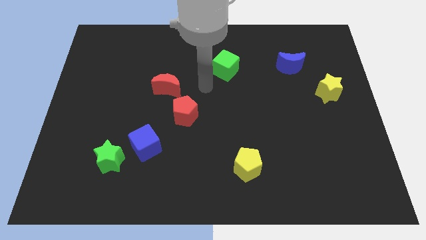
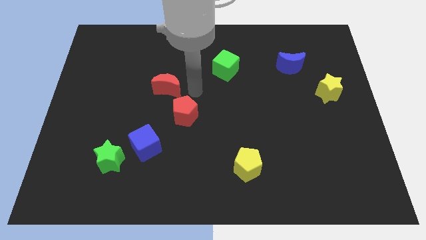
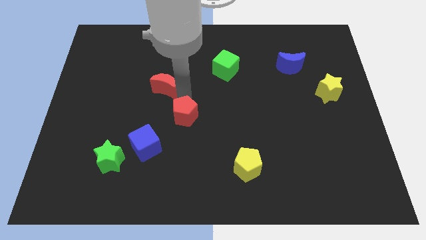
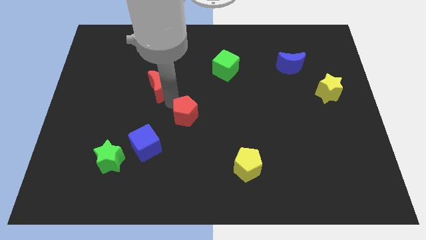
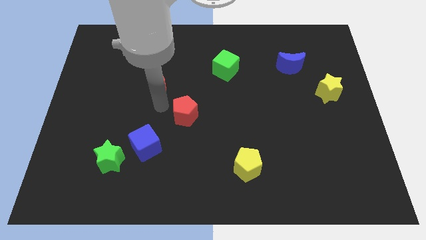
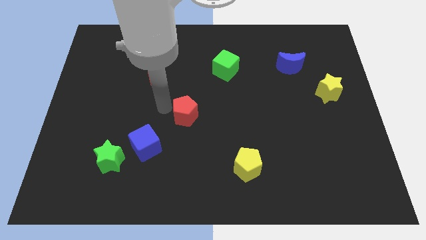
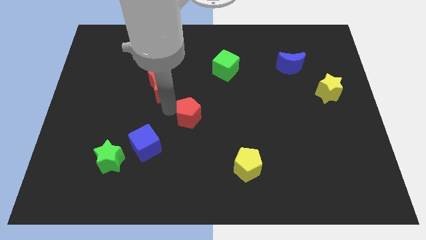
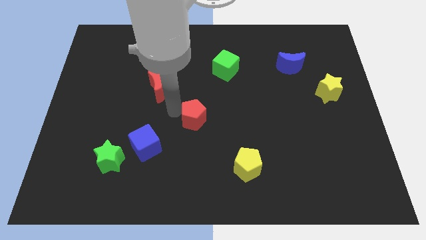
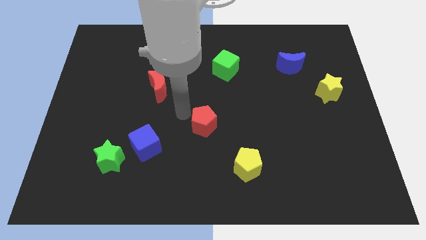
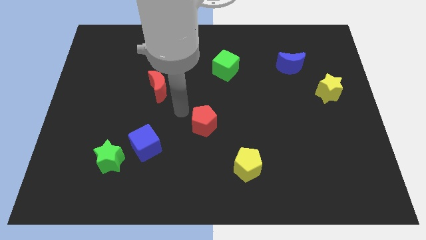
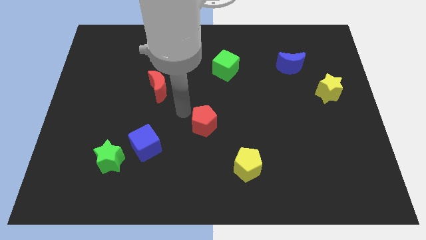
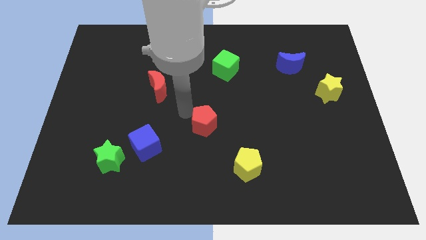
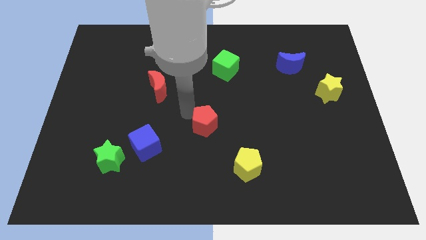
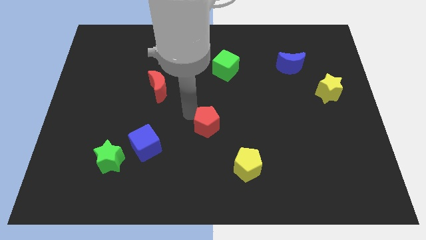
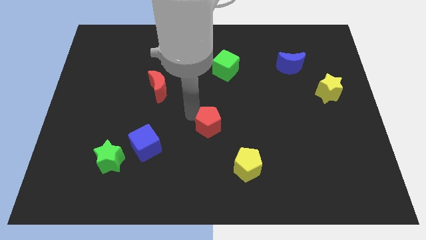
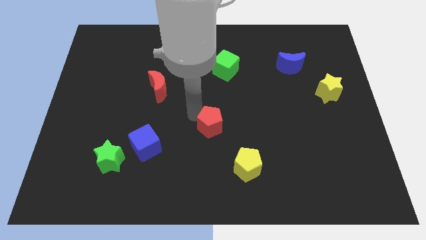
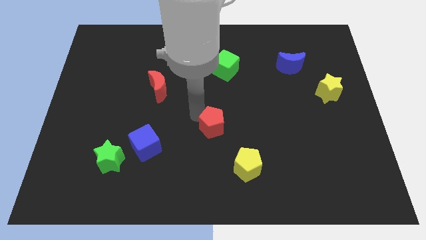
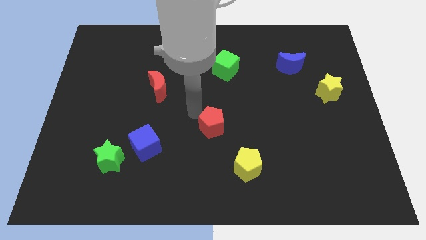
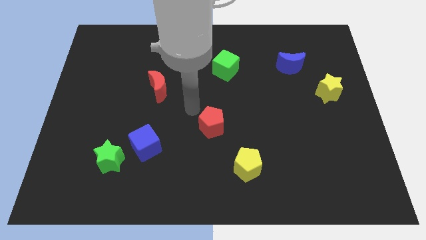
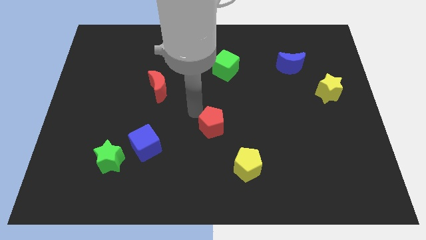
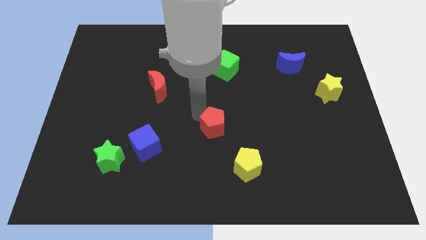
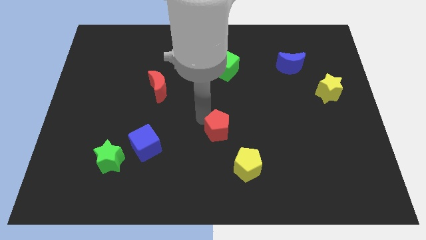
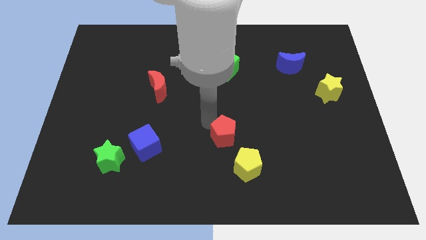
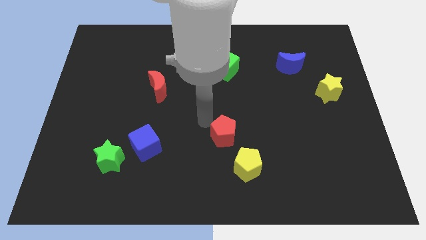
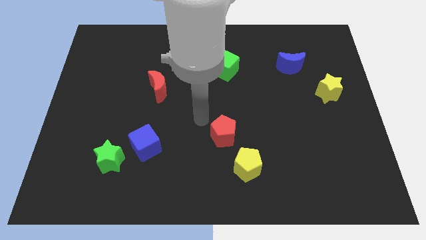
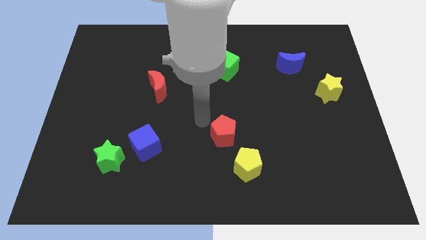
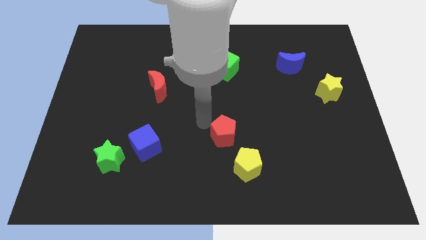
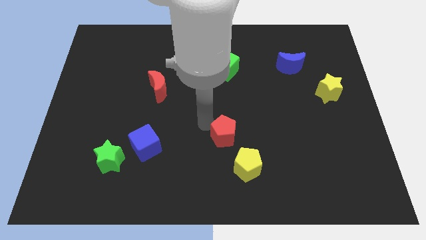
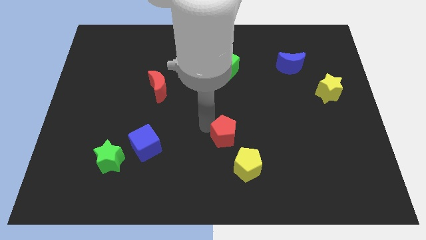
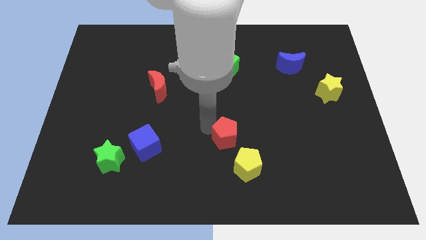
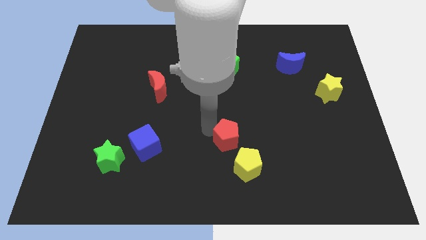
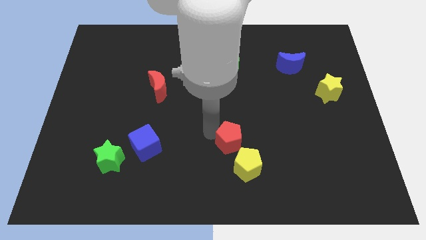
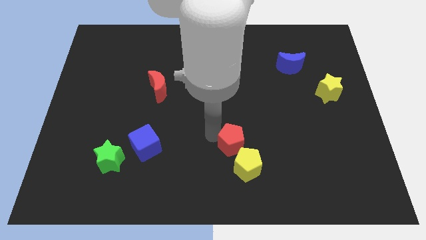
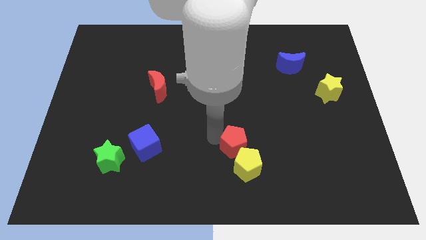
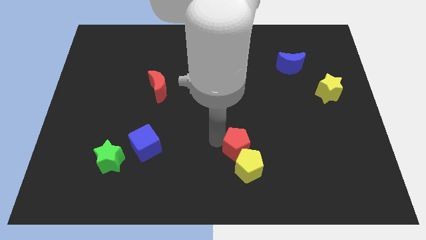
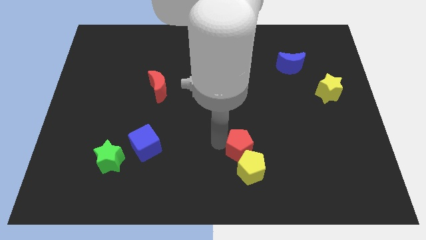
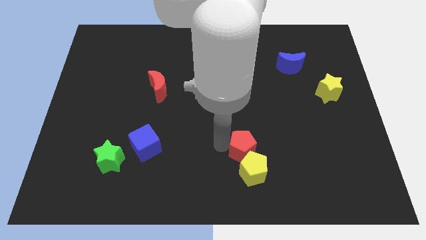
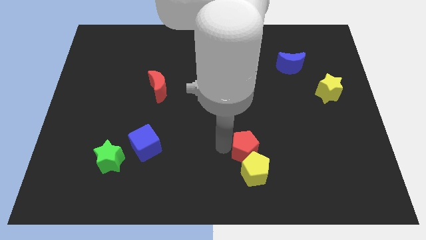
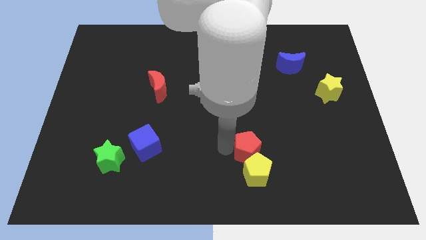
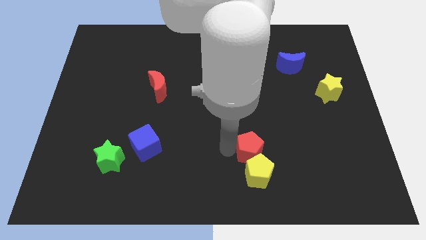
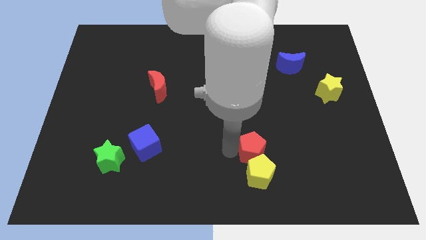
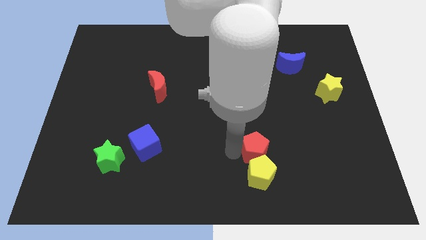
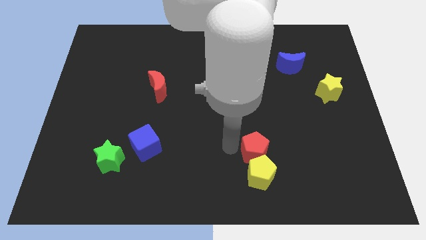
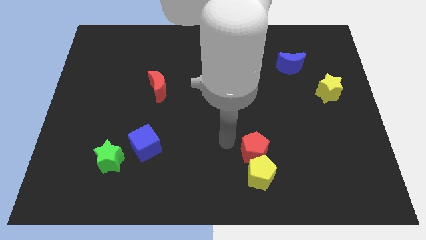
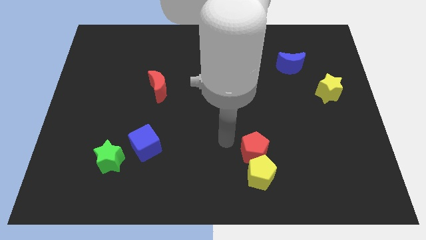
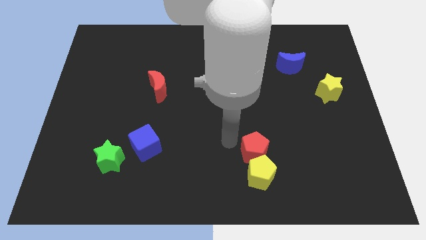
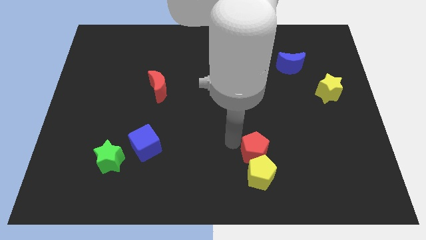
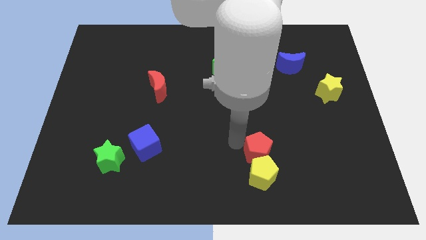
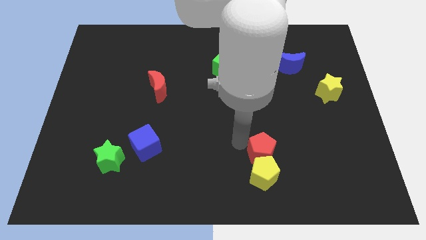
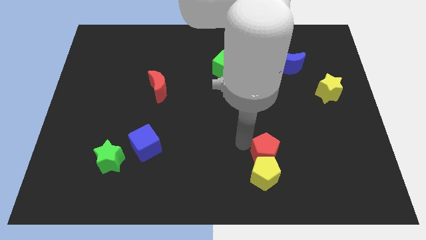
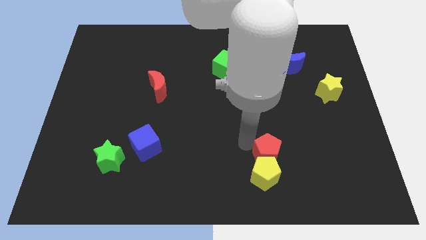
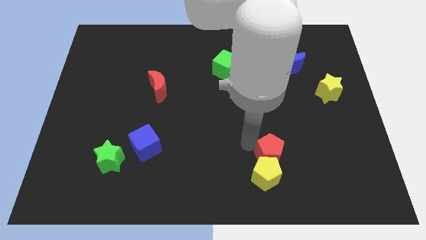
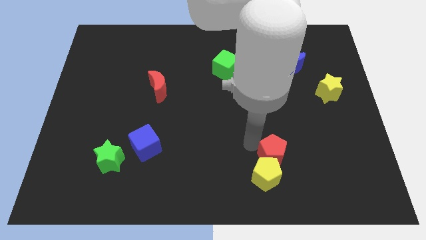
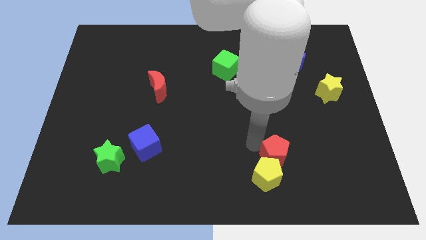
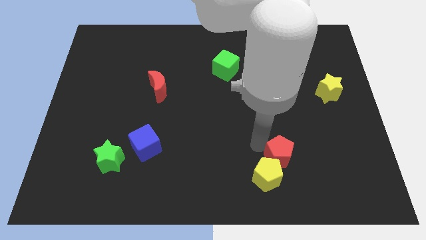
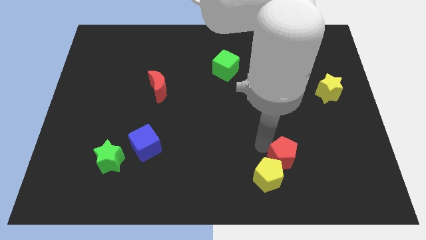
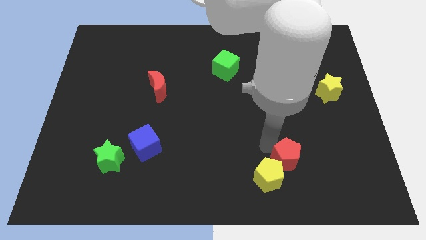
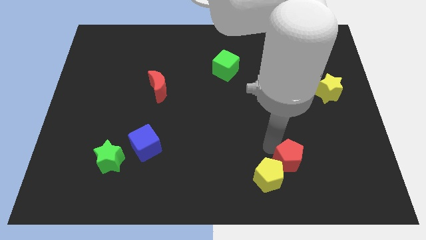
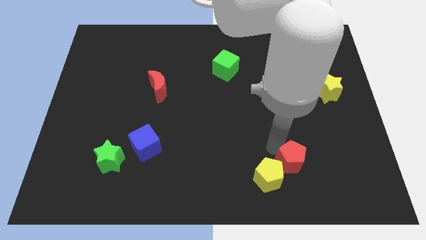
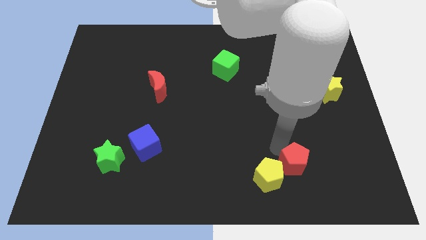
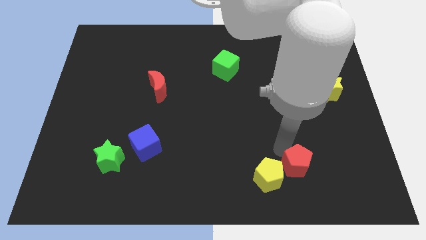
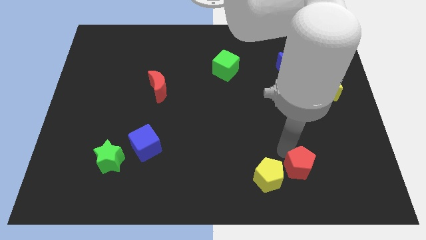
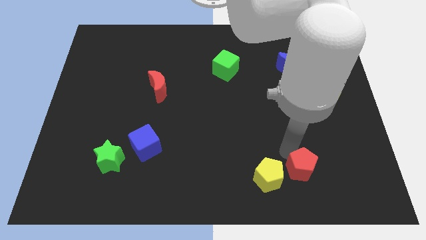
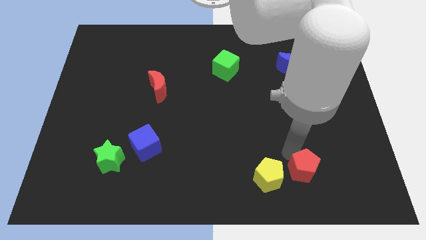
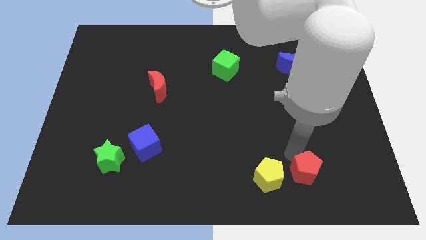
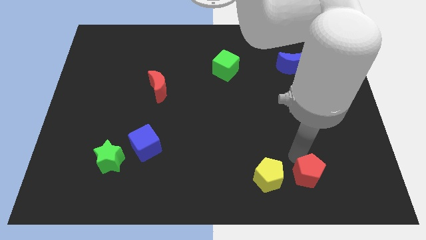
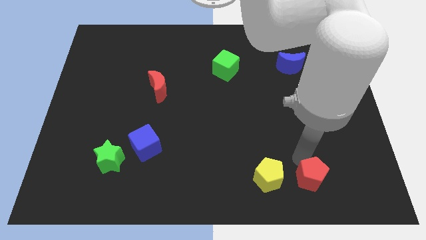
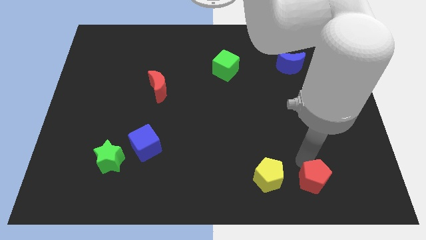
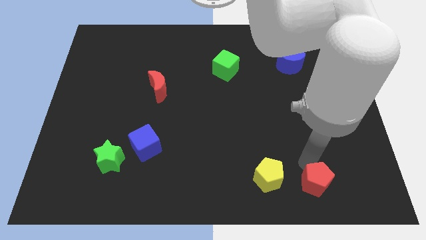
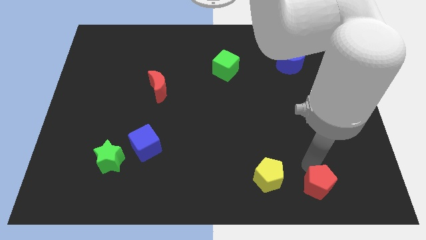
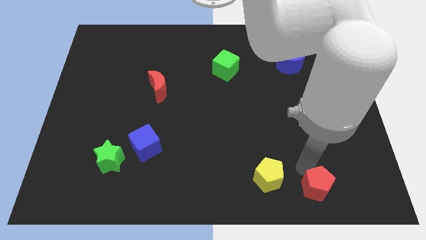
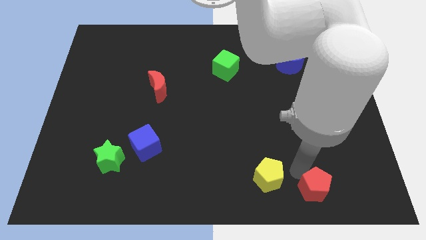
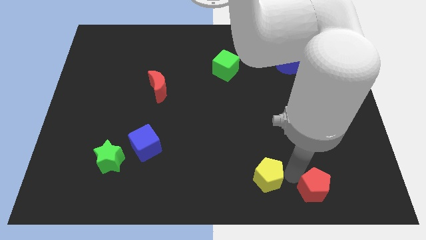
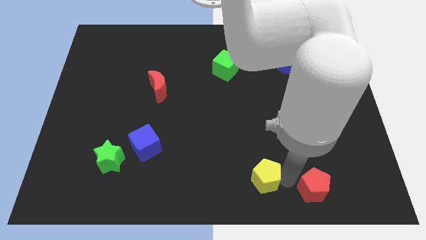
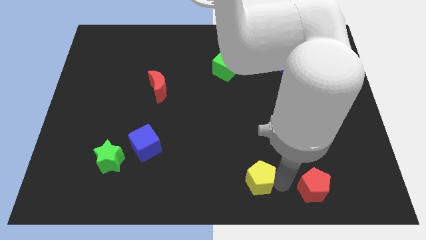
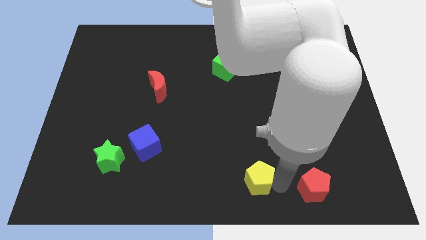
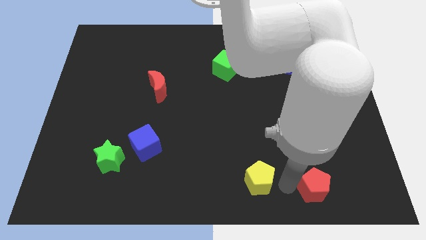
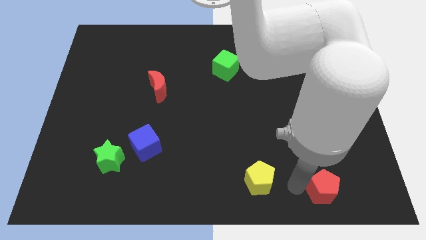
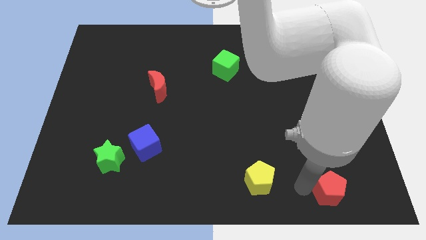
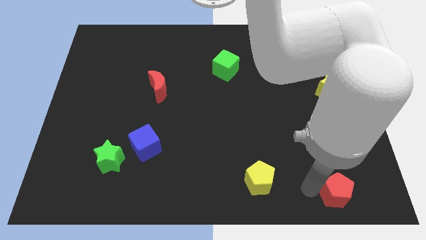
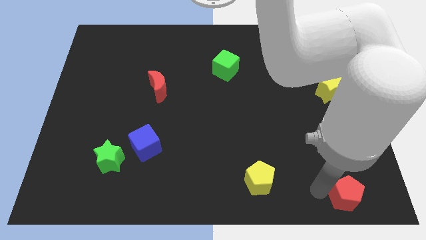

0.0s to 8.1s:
put the red pentagon to the bottom right corner
